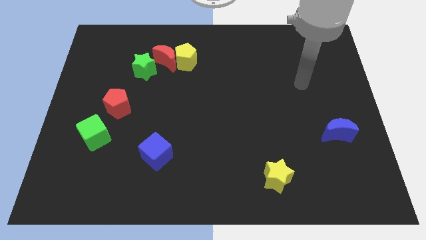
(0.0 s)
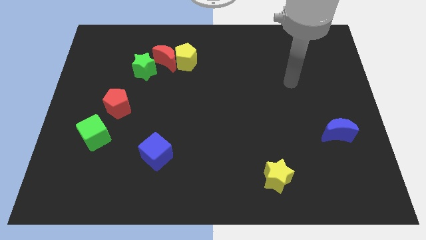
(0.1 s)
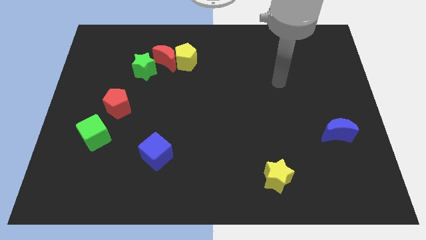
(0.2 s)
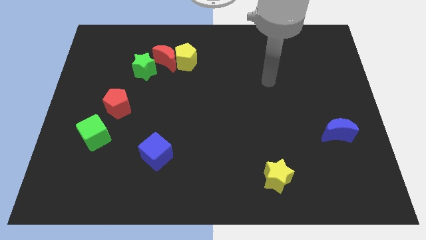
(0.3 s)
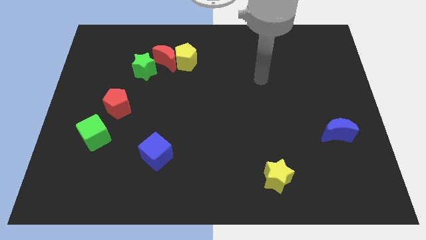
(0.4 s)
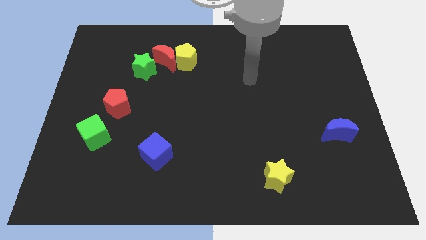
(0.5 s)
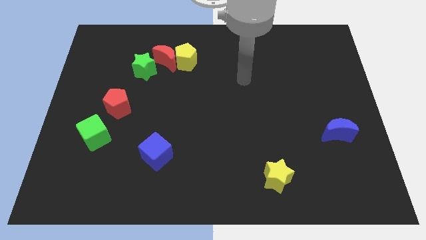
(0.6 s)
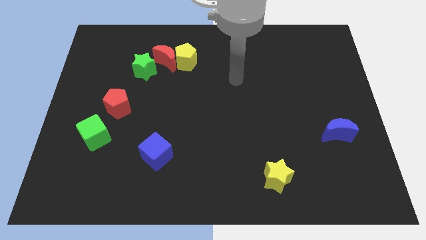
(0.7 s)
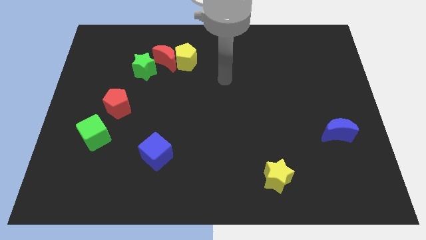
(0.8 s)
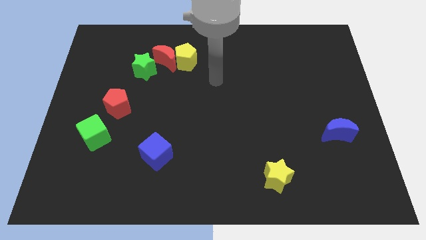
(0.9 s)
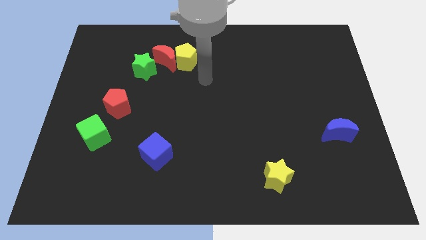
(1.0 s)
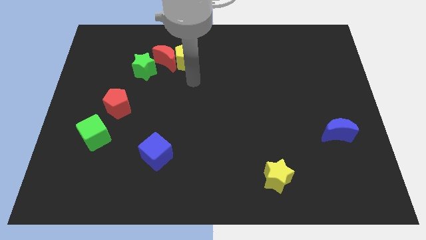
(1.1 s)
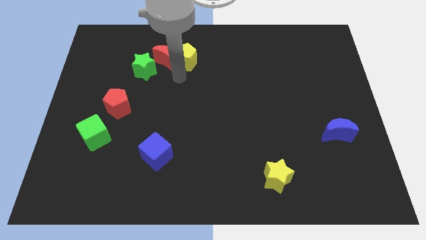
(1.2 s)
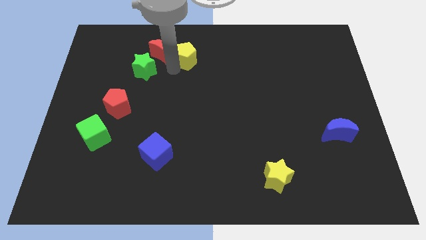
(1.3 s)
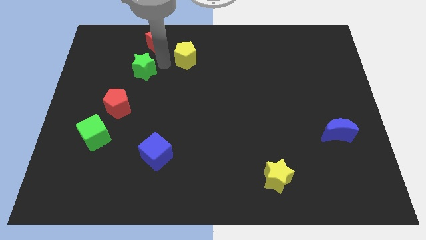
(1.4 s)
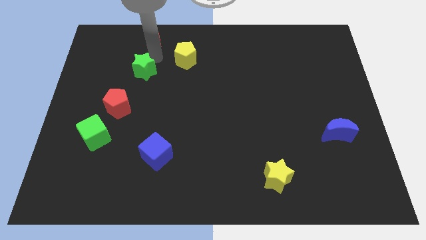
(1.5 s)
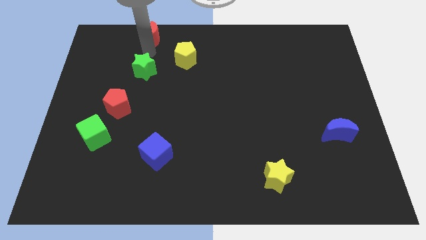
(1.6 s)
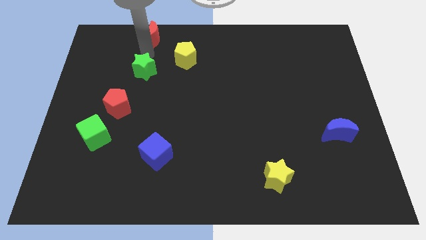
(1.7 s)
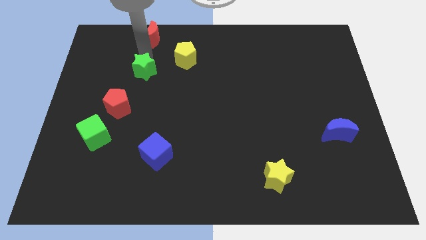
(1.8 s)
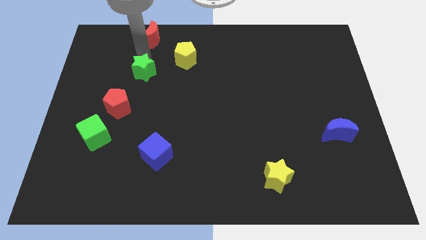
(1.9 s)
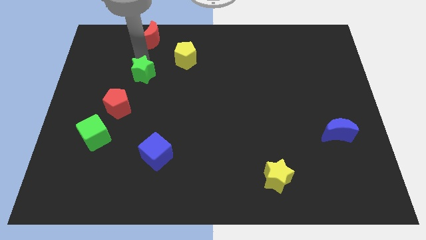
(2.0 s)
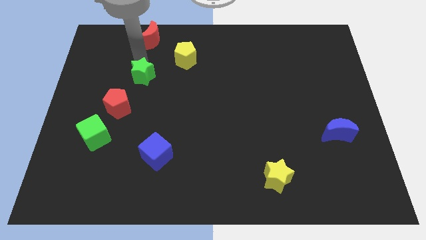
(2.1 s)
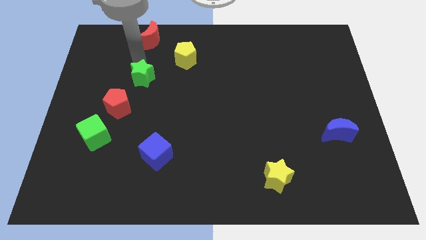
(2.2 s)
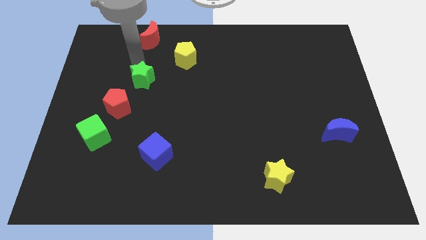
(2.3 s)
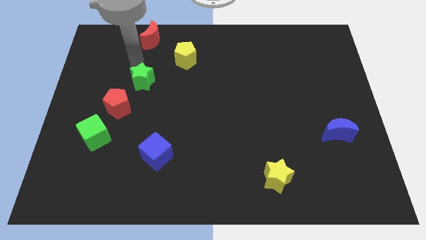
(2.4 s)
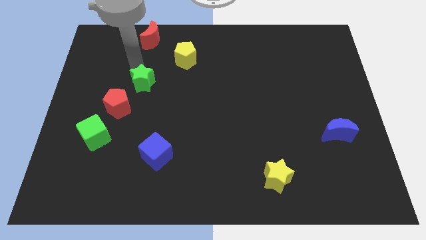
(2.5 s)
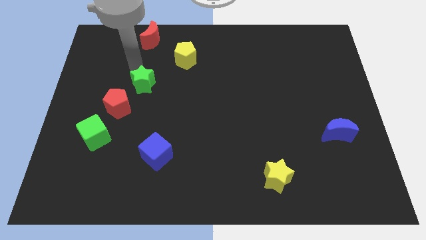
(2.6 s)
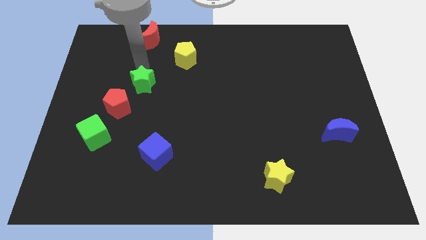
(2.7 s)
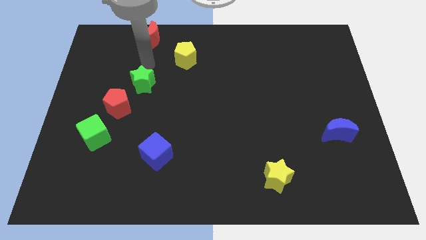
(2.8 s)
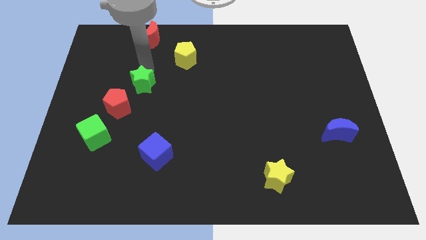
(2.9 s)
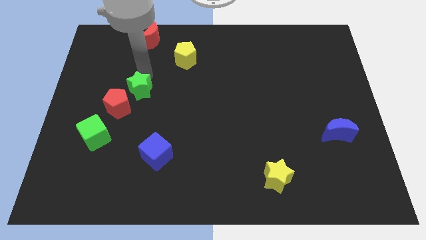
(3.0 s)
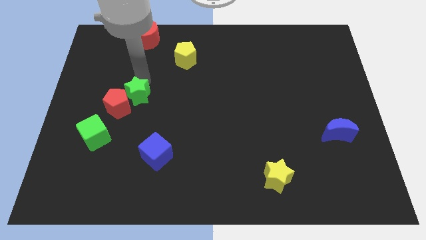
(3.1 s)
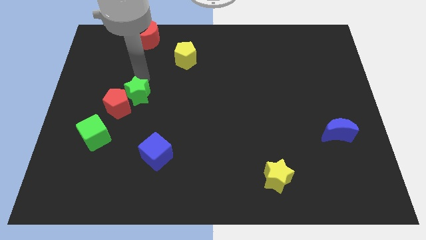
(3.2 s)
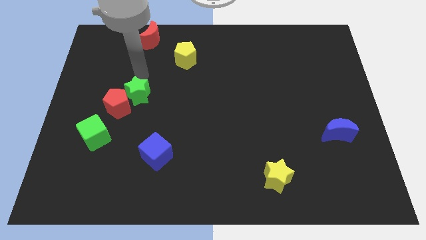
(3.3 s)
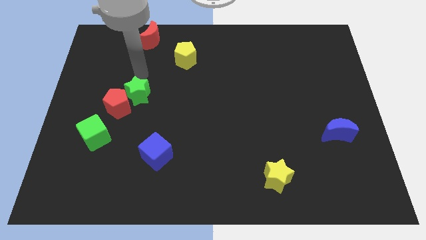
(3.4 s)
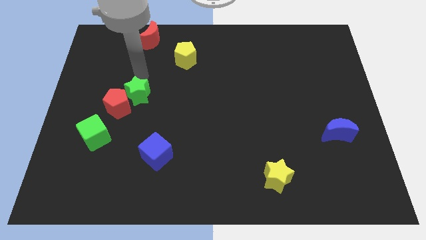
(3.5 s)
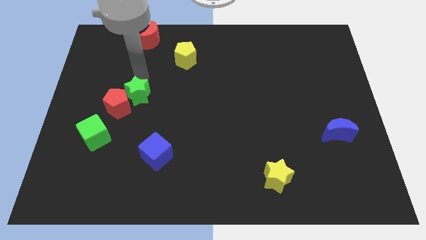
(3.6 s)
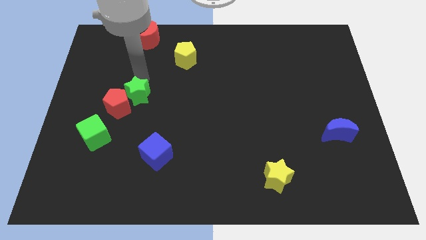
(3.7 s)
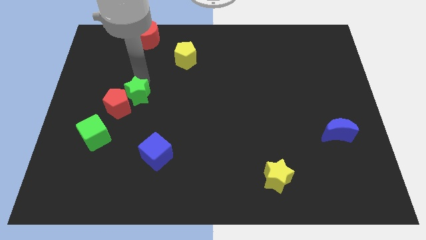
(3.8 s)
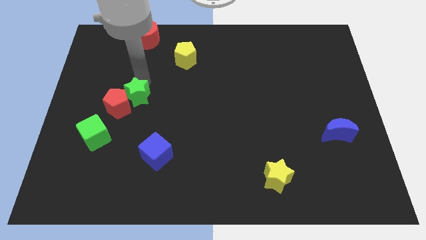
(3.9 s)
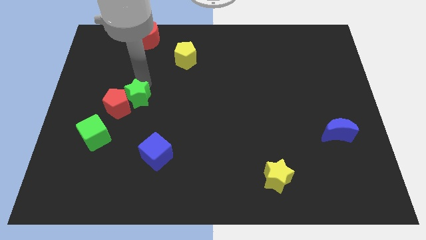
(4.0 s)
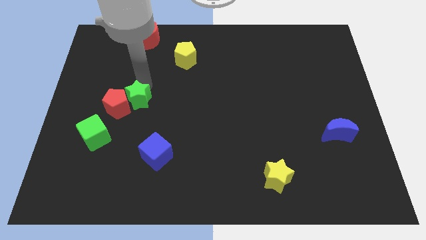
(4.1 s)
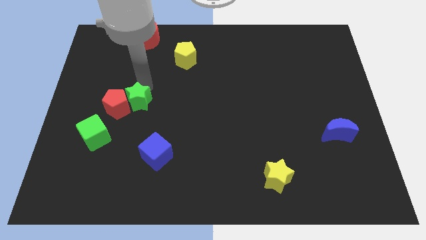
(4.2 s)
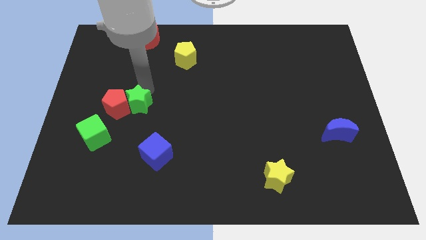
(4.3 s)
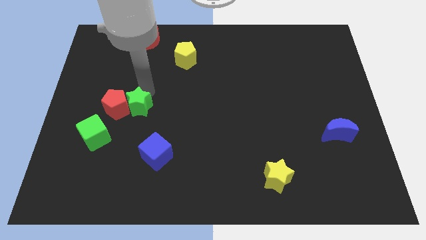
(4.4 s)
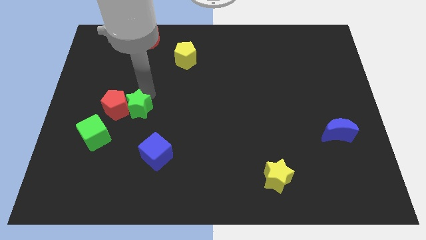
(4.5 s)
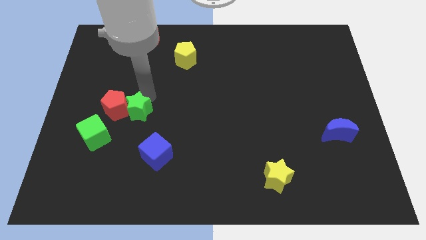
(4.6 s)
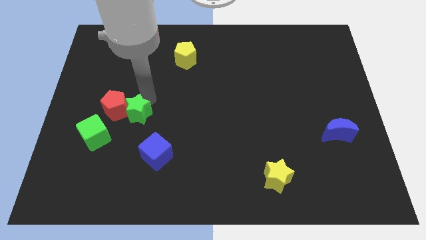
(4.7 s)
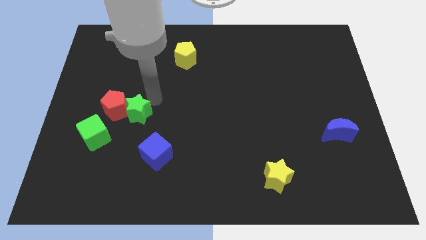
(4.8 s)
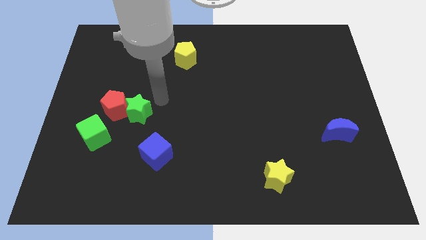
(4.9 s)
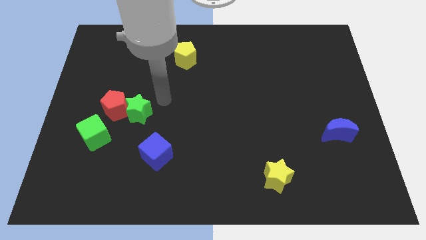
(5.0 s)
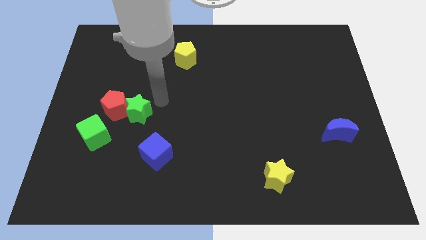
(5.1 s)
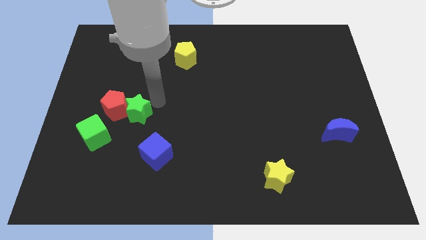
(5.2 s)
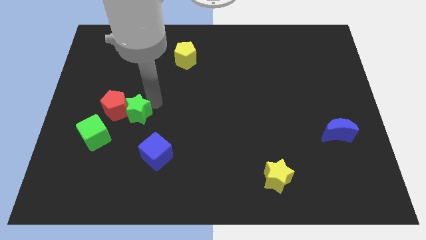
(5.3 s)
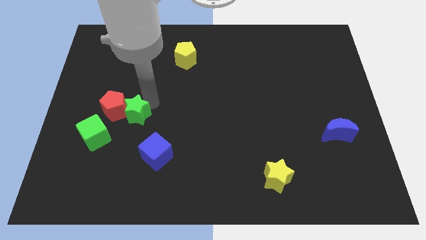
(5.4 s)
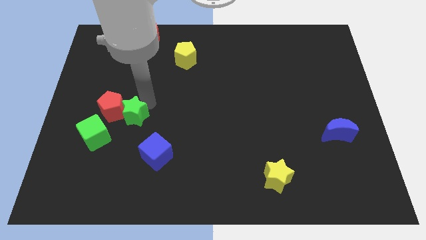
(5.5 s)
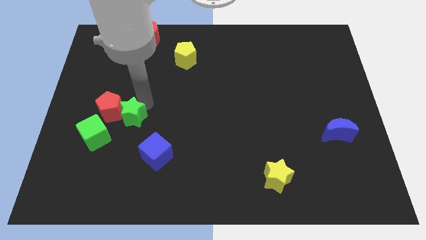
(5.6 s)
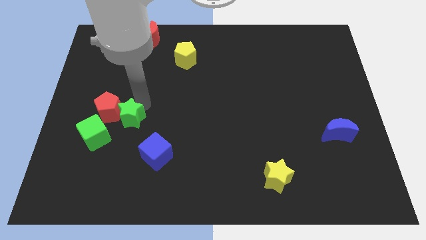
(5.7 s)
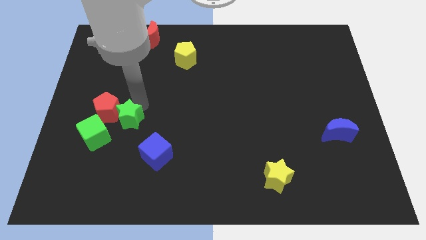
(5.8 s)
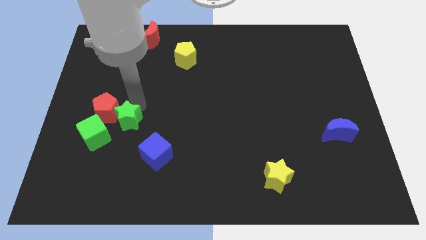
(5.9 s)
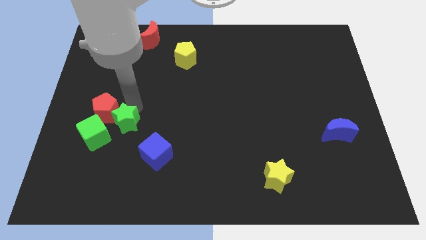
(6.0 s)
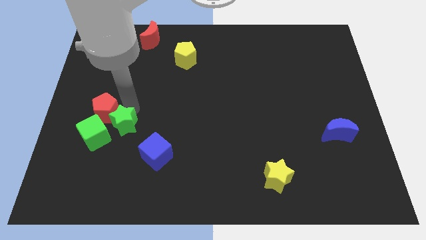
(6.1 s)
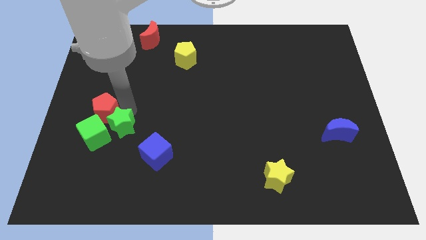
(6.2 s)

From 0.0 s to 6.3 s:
put the green star close to the green cube

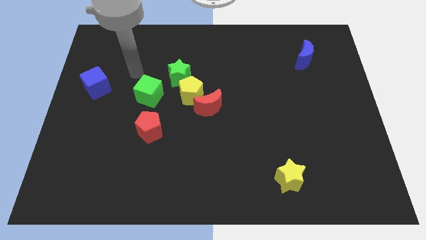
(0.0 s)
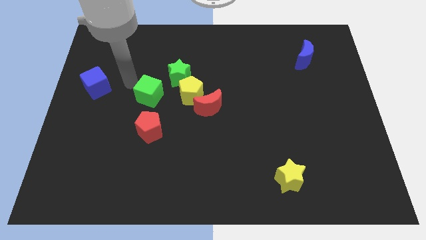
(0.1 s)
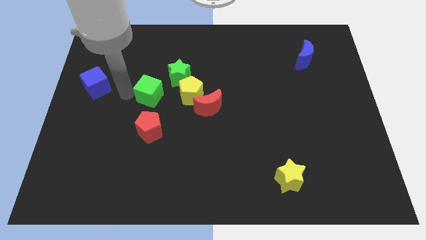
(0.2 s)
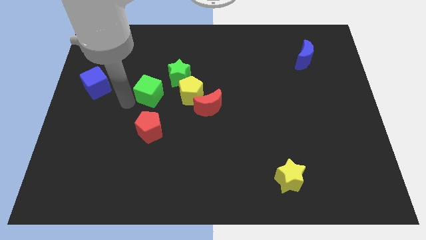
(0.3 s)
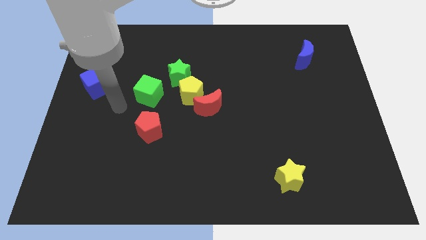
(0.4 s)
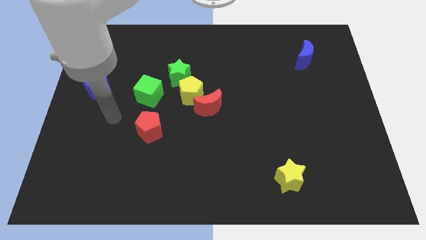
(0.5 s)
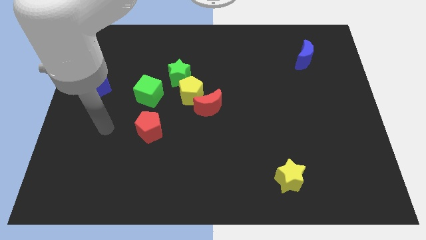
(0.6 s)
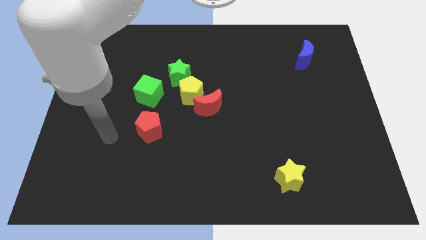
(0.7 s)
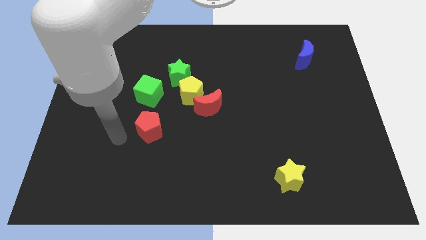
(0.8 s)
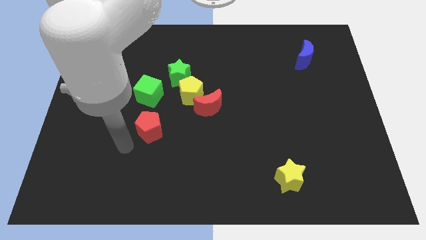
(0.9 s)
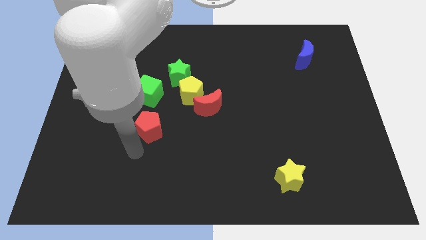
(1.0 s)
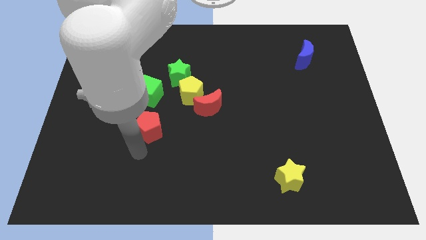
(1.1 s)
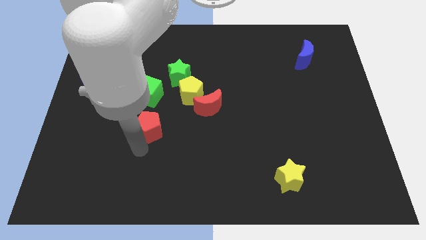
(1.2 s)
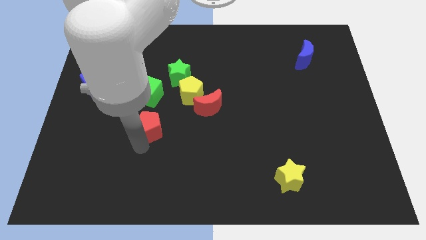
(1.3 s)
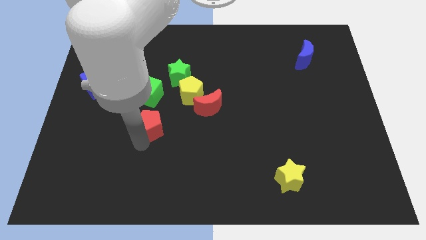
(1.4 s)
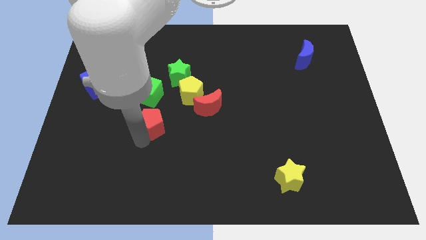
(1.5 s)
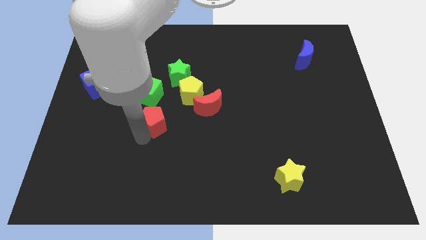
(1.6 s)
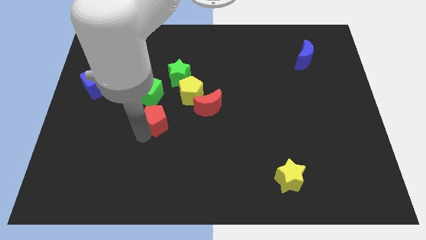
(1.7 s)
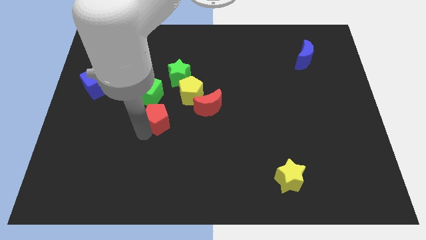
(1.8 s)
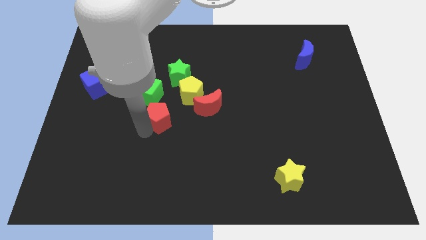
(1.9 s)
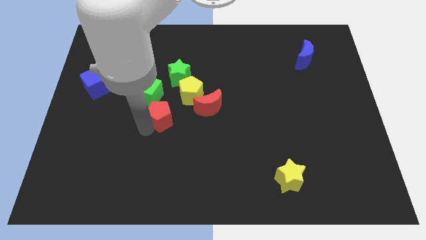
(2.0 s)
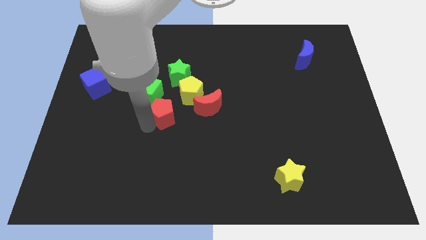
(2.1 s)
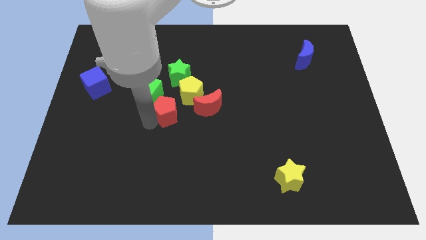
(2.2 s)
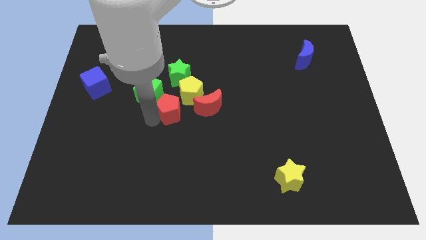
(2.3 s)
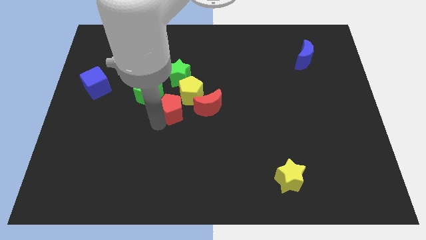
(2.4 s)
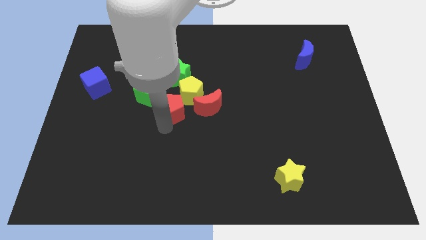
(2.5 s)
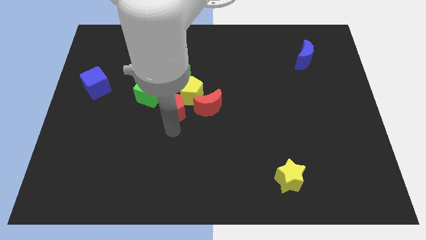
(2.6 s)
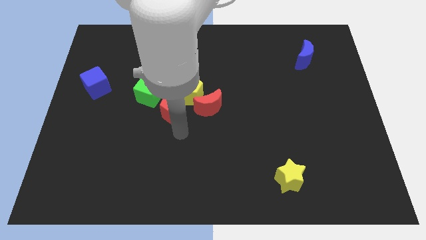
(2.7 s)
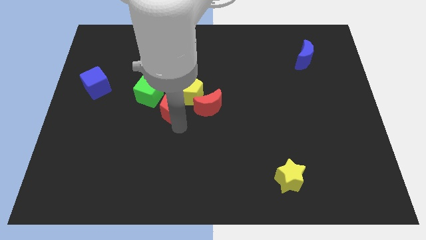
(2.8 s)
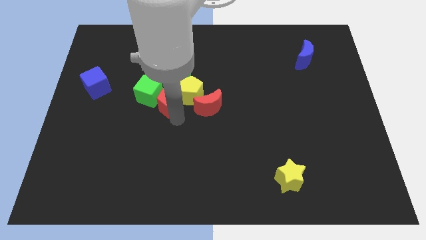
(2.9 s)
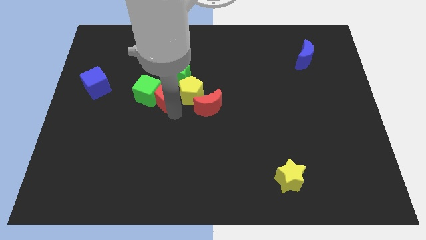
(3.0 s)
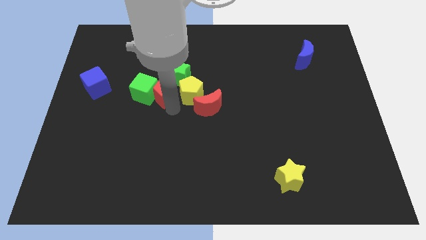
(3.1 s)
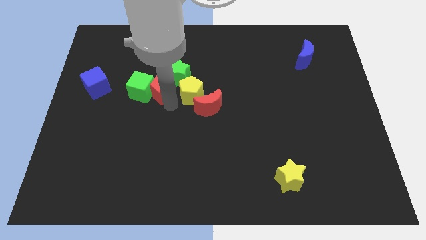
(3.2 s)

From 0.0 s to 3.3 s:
slide the red pentagon to the green star
